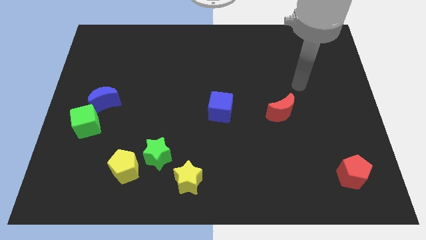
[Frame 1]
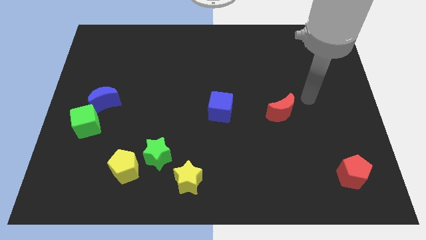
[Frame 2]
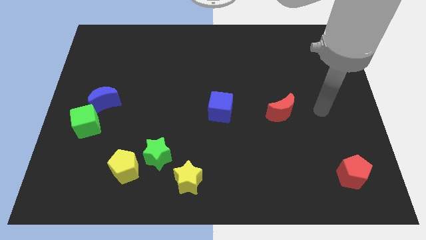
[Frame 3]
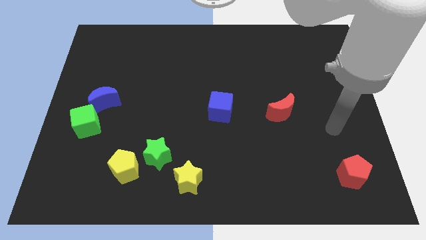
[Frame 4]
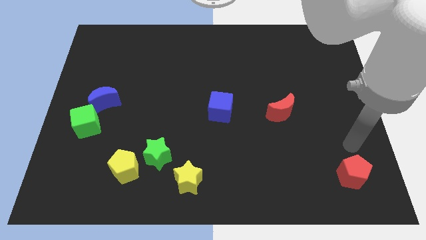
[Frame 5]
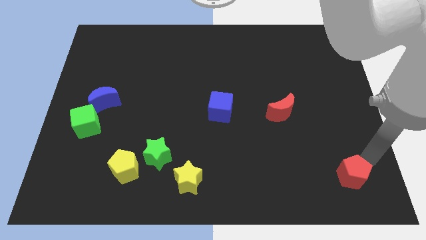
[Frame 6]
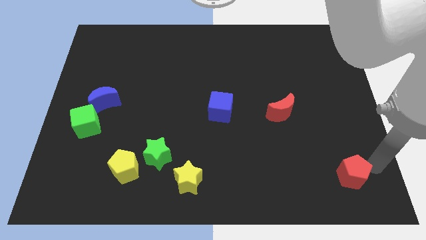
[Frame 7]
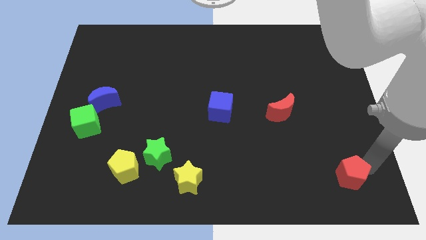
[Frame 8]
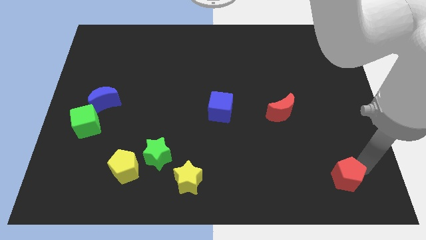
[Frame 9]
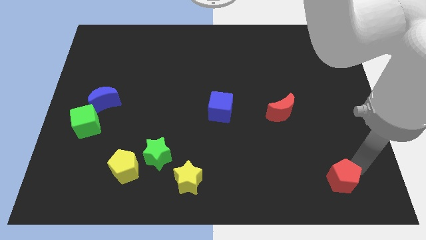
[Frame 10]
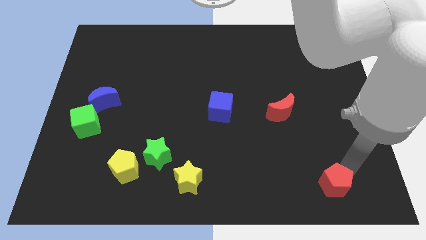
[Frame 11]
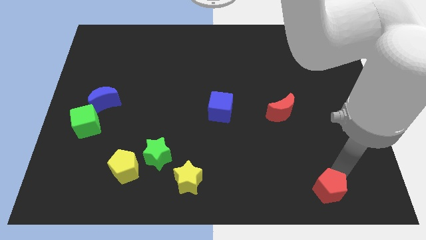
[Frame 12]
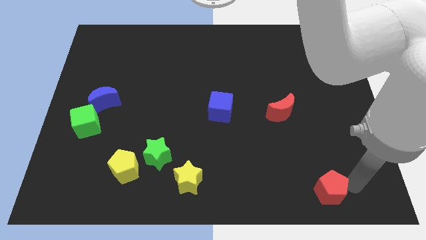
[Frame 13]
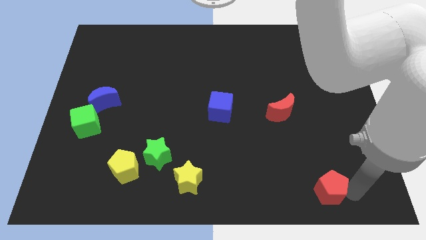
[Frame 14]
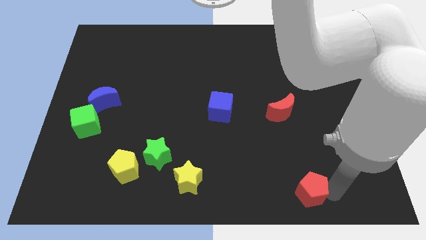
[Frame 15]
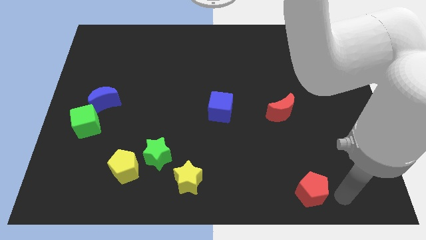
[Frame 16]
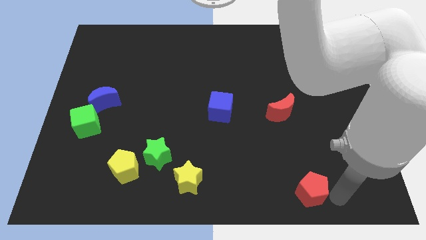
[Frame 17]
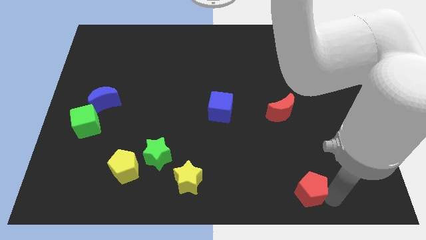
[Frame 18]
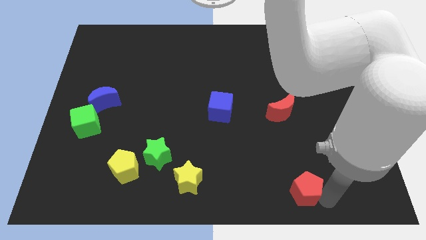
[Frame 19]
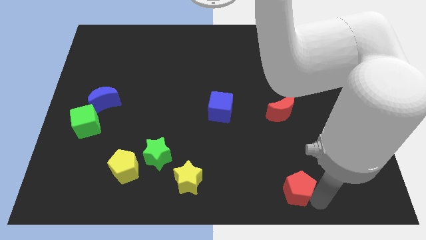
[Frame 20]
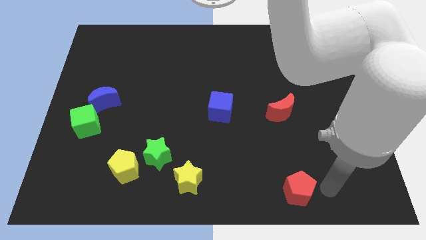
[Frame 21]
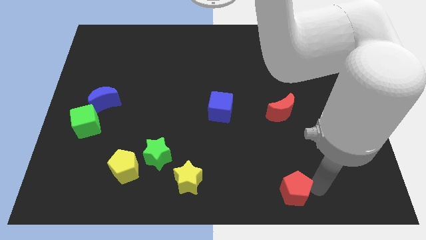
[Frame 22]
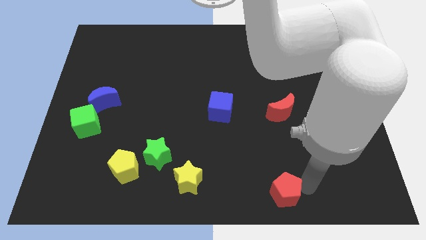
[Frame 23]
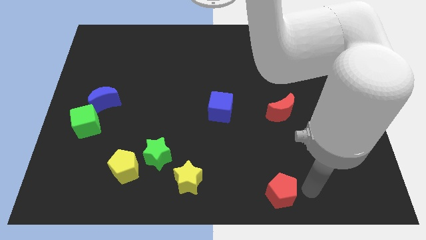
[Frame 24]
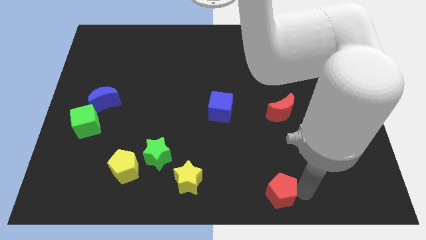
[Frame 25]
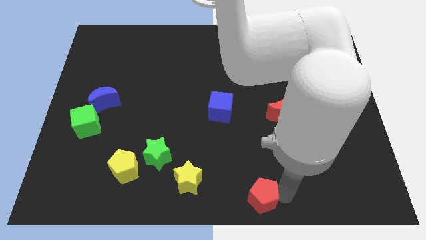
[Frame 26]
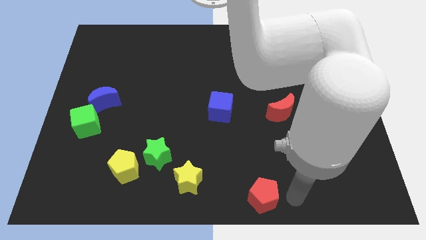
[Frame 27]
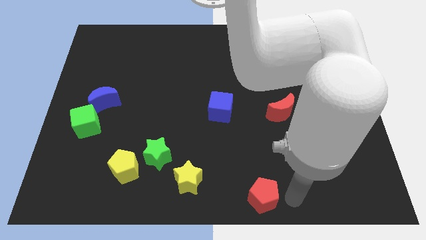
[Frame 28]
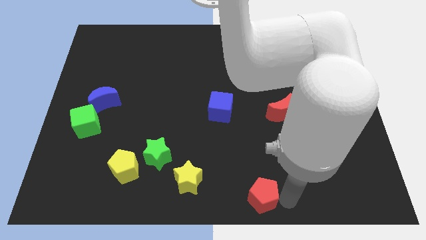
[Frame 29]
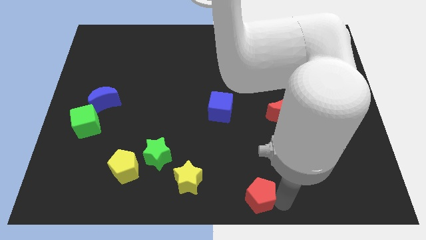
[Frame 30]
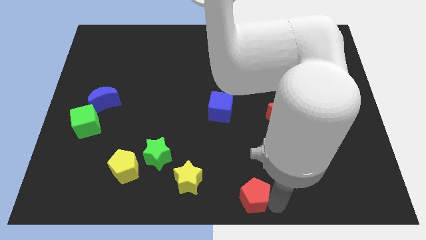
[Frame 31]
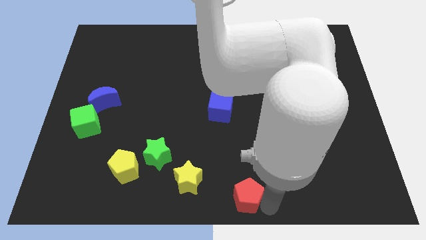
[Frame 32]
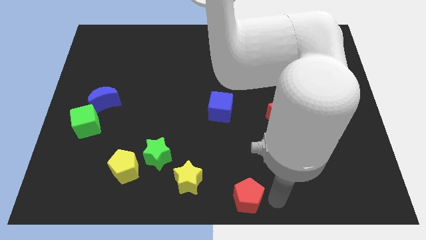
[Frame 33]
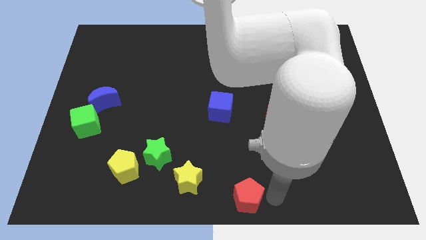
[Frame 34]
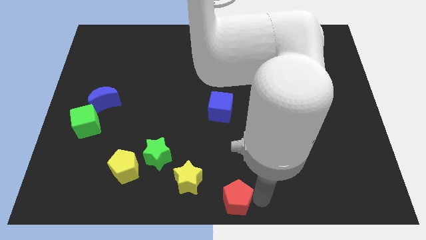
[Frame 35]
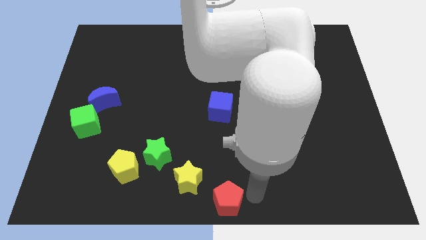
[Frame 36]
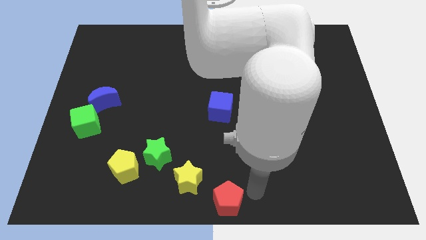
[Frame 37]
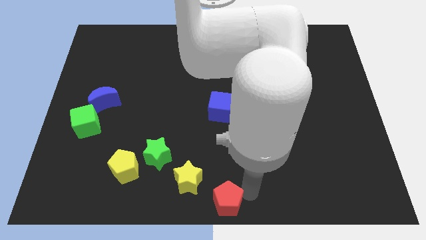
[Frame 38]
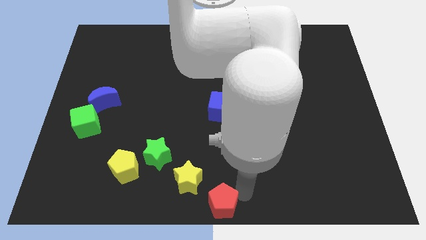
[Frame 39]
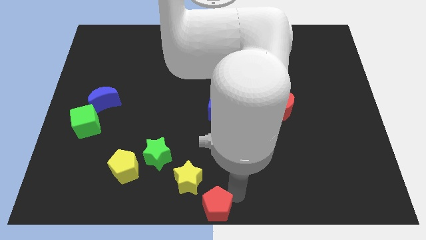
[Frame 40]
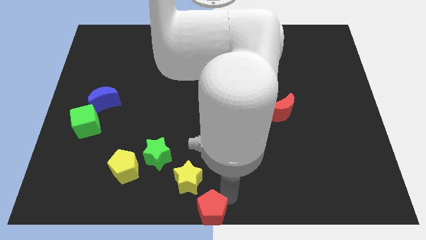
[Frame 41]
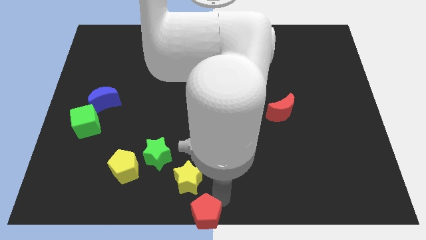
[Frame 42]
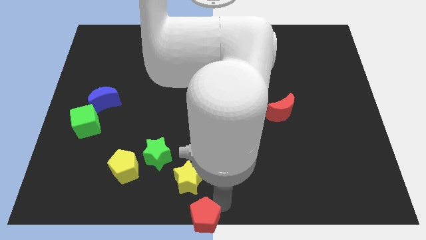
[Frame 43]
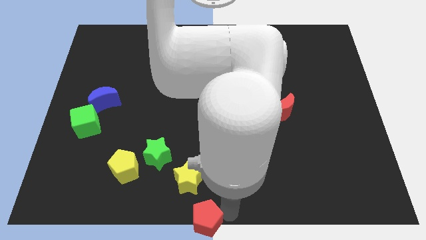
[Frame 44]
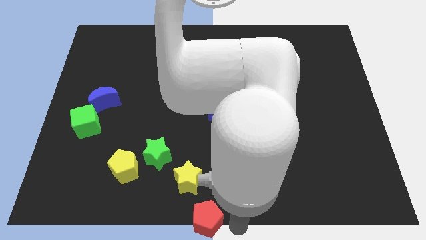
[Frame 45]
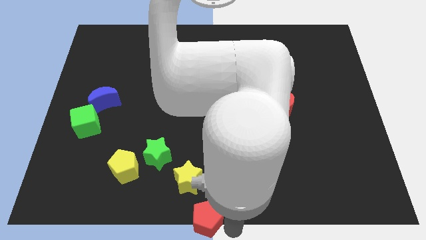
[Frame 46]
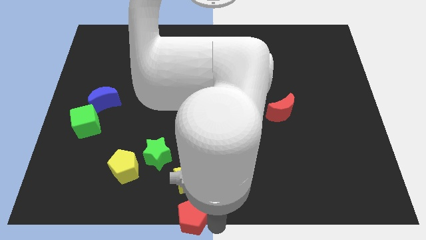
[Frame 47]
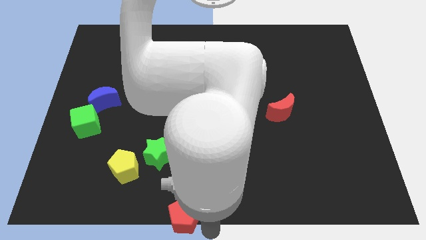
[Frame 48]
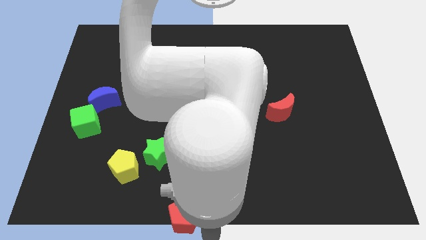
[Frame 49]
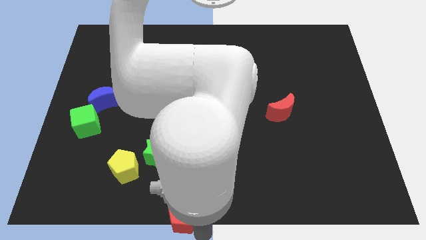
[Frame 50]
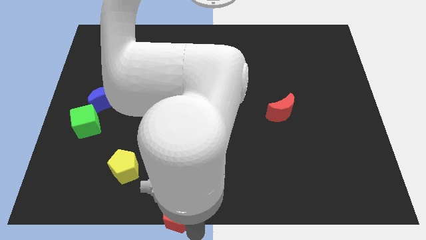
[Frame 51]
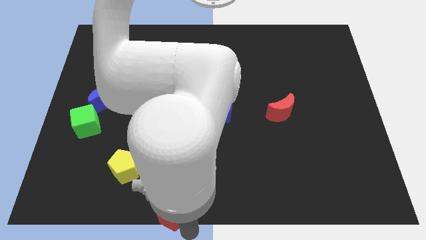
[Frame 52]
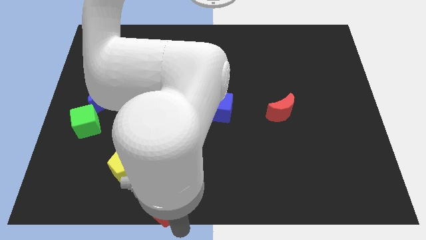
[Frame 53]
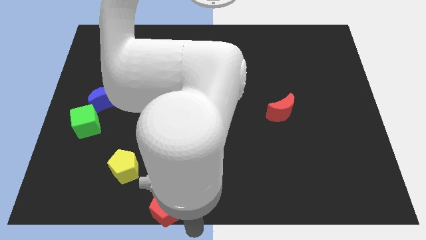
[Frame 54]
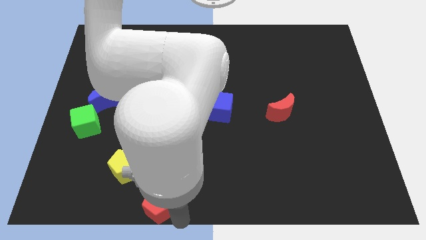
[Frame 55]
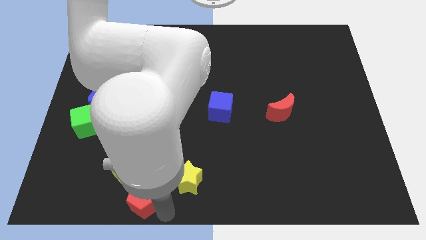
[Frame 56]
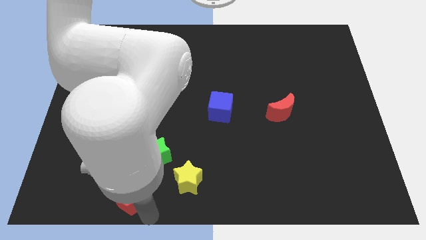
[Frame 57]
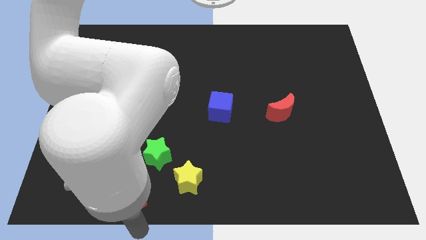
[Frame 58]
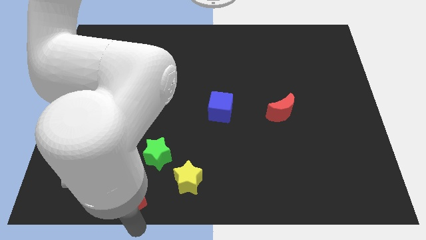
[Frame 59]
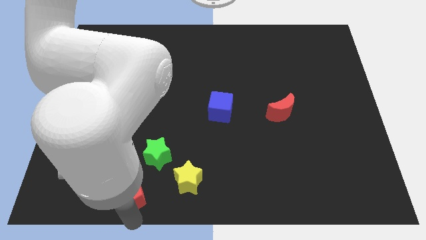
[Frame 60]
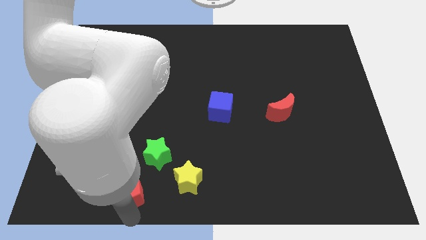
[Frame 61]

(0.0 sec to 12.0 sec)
slide the red pentagon to the yellow pentagon

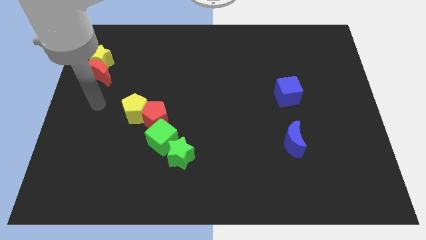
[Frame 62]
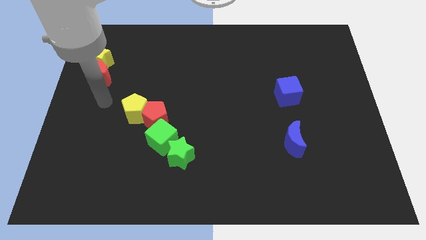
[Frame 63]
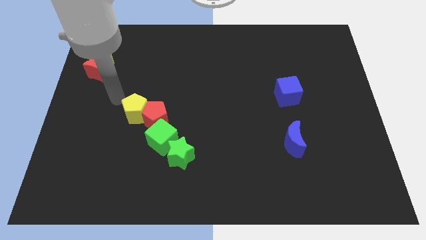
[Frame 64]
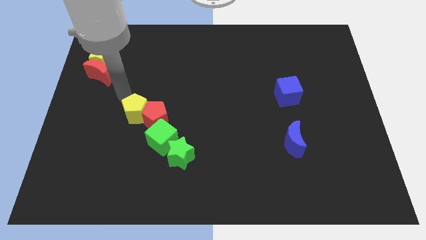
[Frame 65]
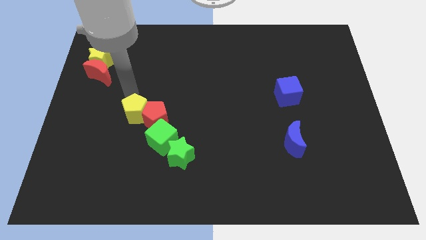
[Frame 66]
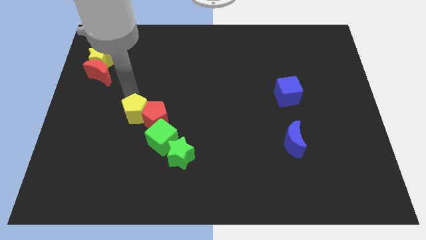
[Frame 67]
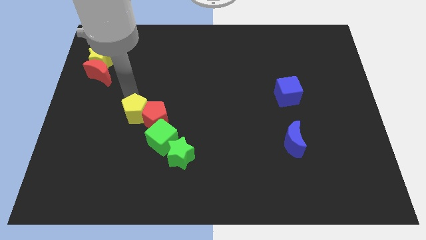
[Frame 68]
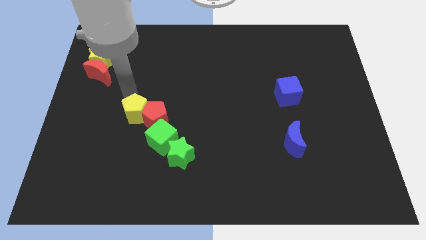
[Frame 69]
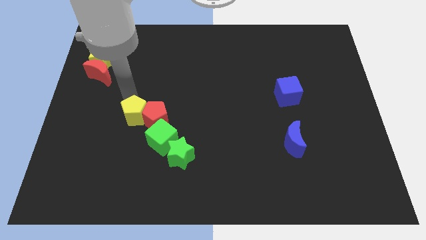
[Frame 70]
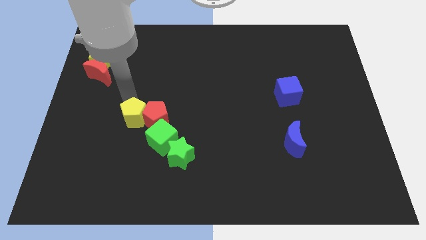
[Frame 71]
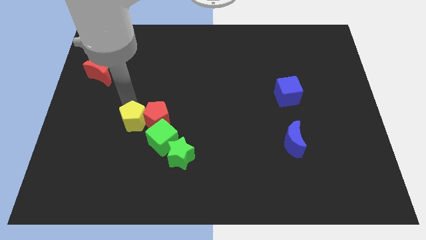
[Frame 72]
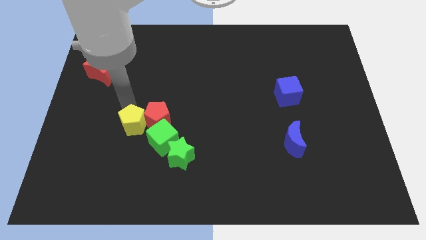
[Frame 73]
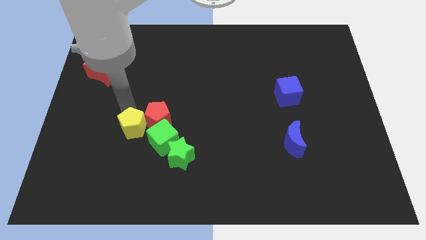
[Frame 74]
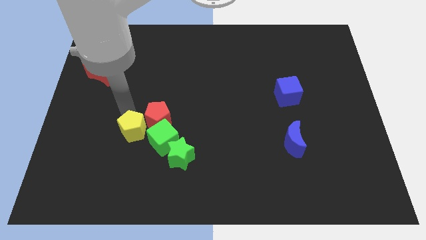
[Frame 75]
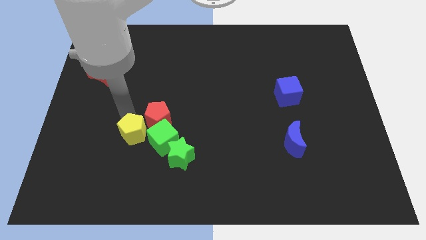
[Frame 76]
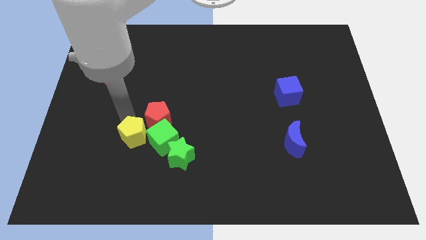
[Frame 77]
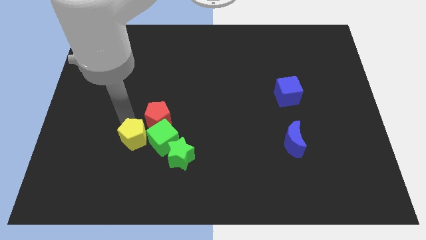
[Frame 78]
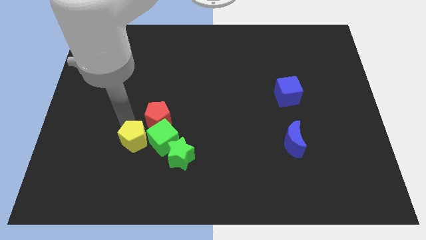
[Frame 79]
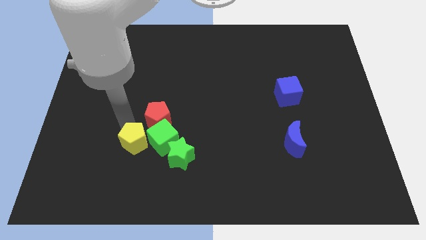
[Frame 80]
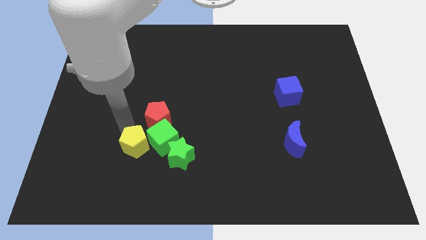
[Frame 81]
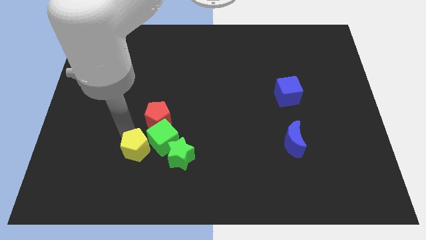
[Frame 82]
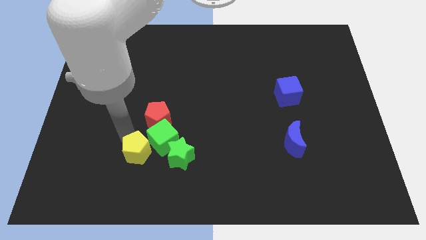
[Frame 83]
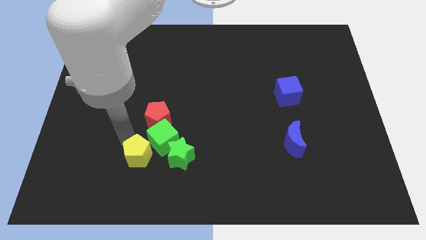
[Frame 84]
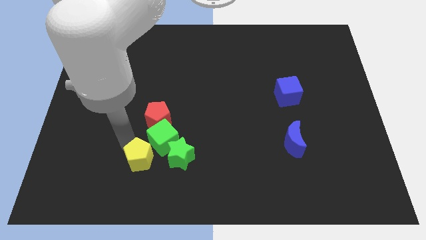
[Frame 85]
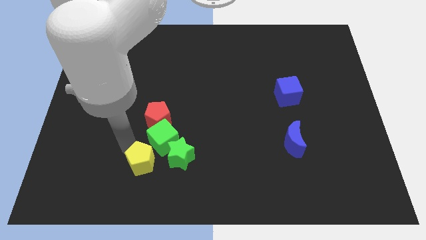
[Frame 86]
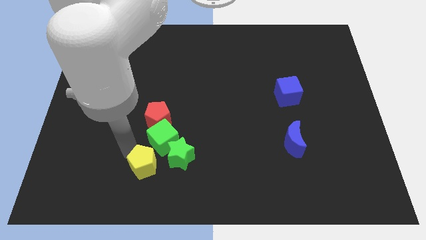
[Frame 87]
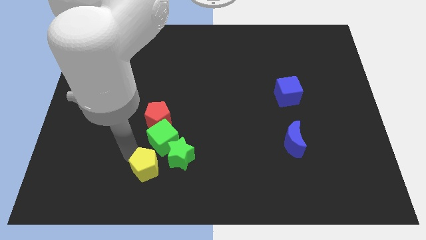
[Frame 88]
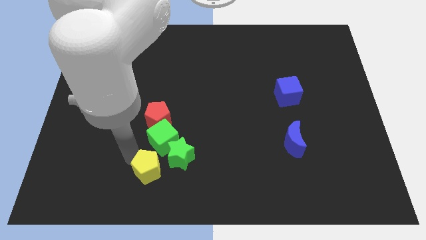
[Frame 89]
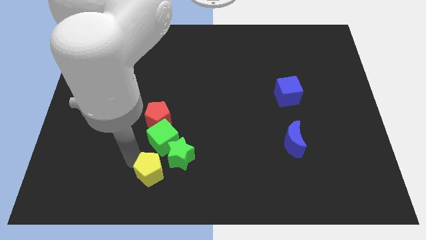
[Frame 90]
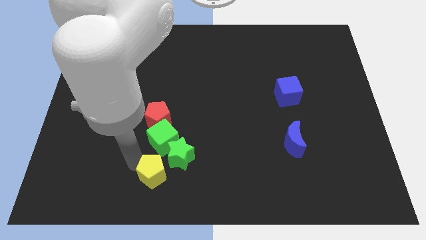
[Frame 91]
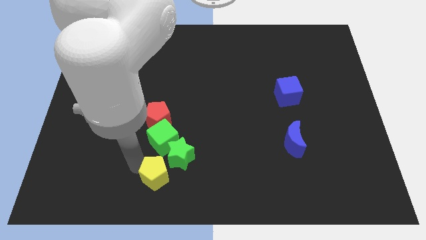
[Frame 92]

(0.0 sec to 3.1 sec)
put the yellow pentagon to the green star
